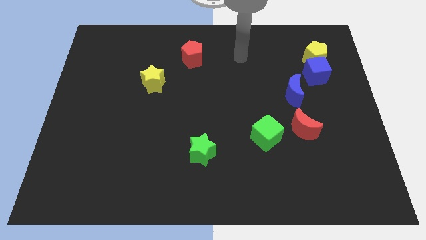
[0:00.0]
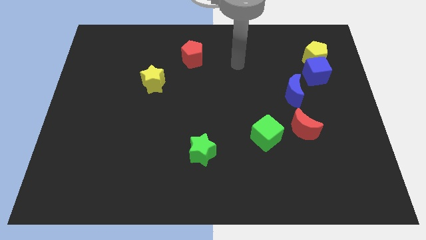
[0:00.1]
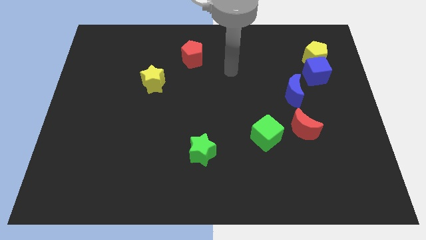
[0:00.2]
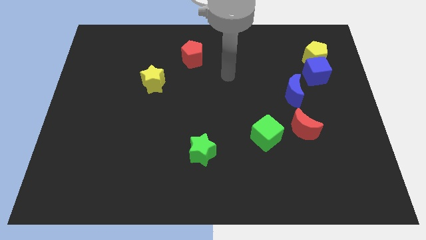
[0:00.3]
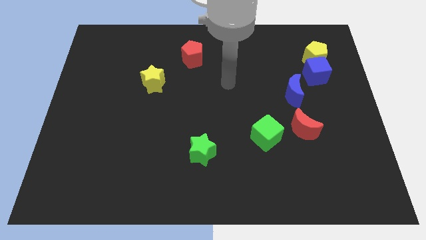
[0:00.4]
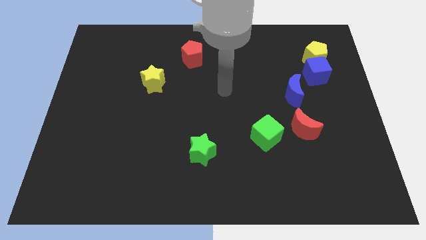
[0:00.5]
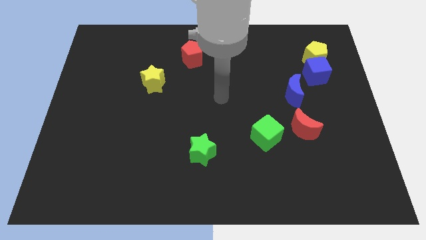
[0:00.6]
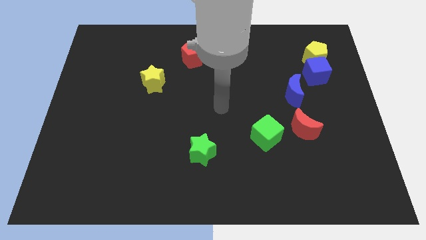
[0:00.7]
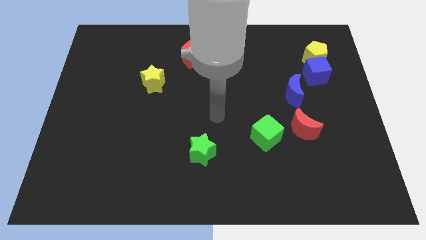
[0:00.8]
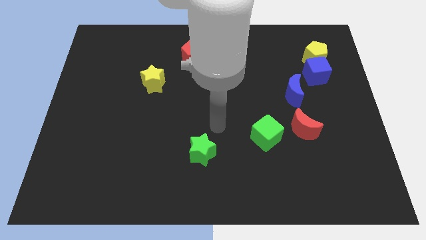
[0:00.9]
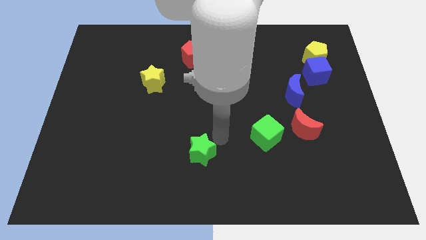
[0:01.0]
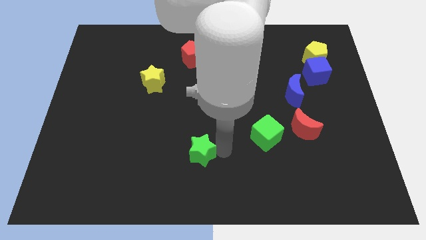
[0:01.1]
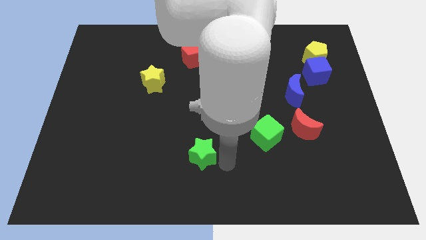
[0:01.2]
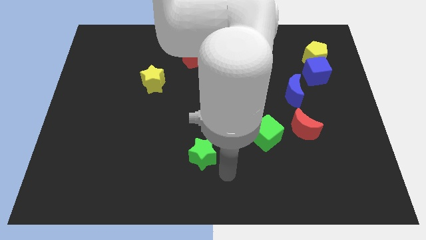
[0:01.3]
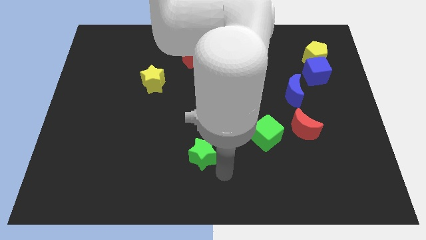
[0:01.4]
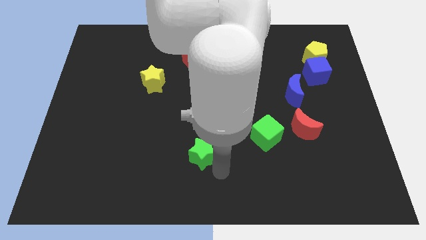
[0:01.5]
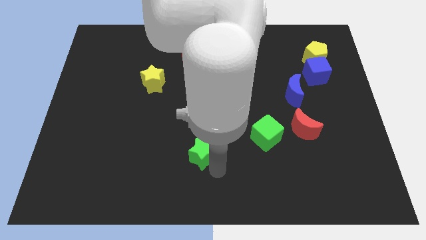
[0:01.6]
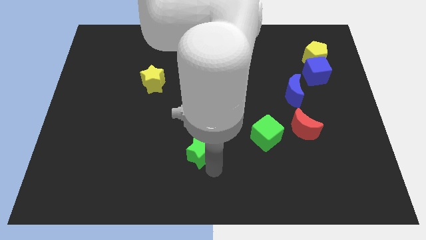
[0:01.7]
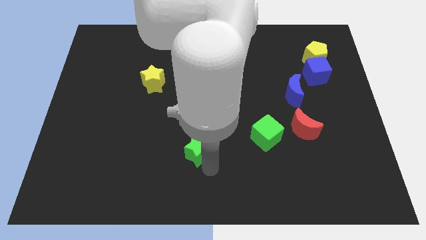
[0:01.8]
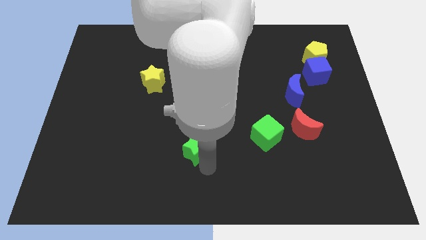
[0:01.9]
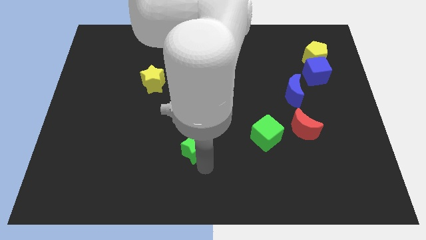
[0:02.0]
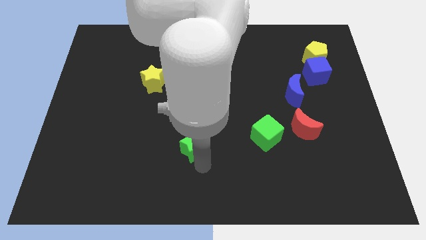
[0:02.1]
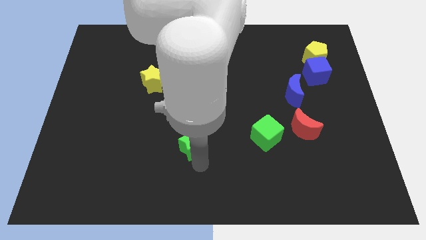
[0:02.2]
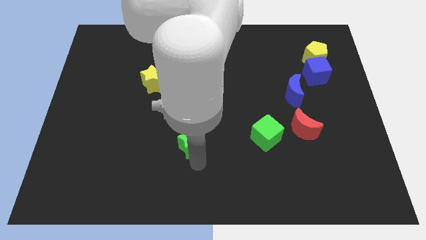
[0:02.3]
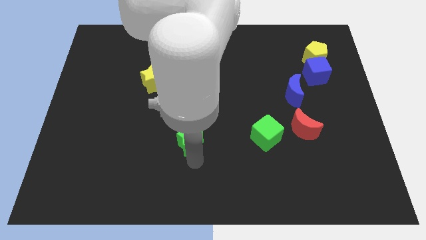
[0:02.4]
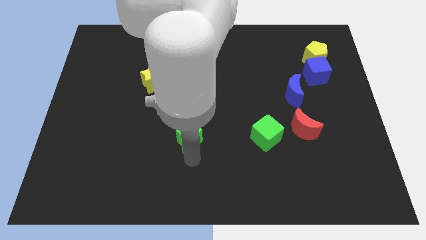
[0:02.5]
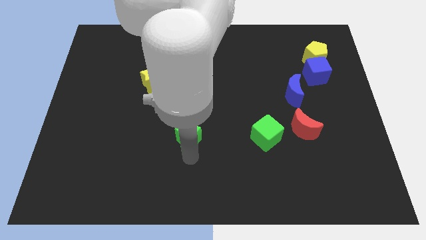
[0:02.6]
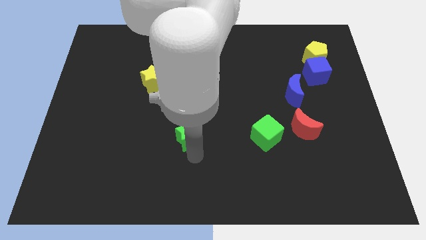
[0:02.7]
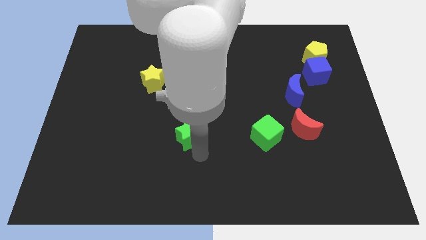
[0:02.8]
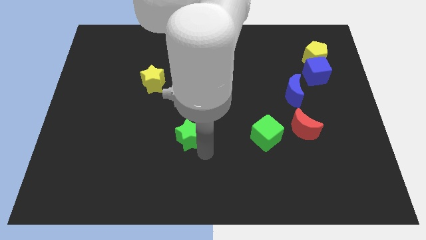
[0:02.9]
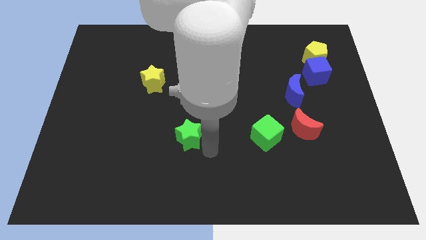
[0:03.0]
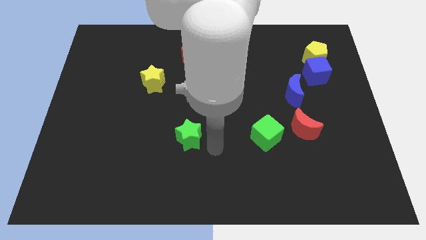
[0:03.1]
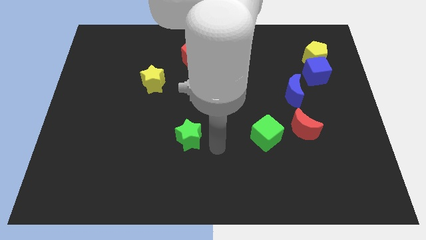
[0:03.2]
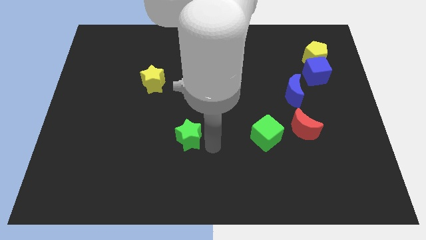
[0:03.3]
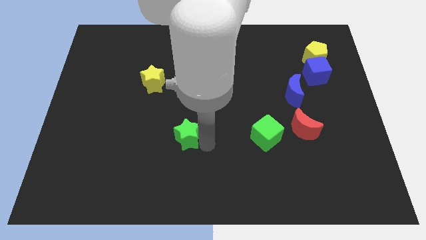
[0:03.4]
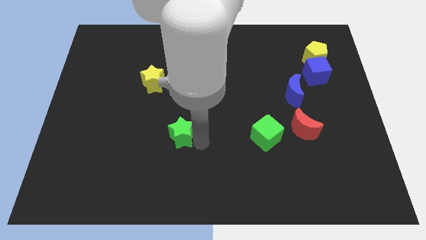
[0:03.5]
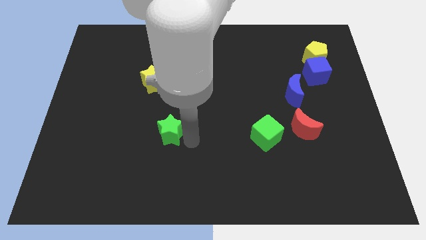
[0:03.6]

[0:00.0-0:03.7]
slightly slide the green star diagonally upwards and left

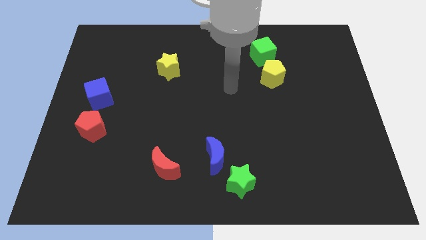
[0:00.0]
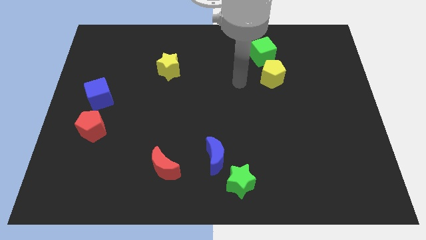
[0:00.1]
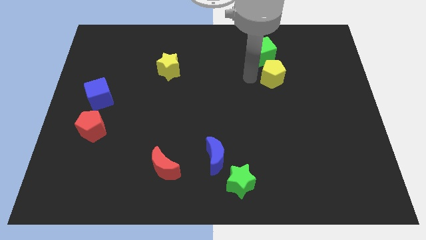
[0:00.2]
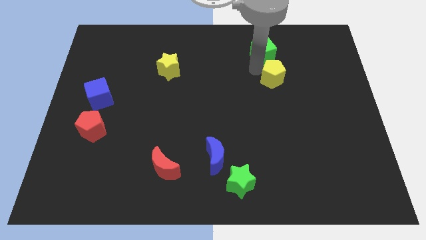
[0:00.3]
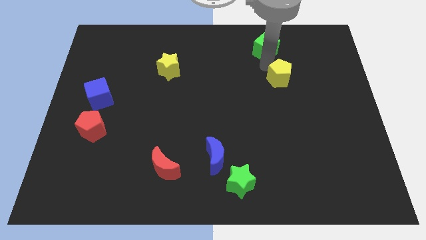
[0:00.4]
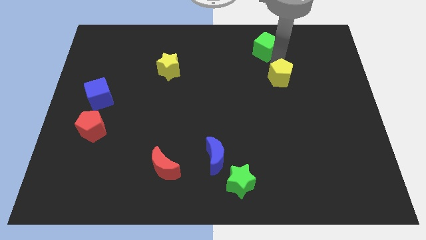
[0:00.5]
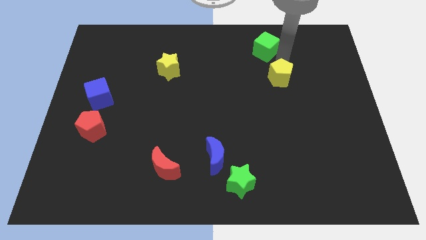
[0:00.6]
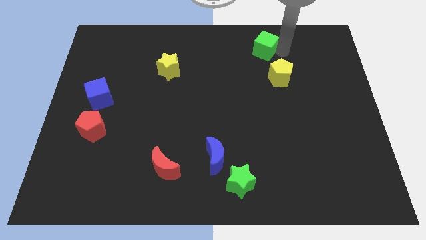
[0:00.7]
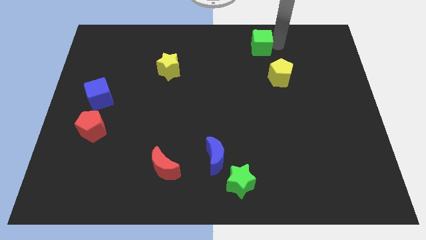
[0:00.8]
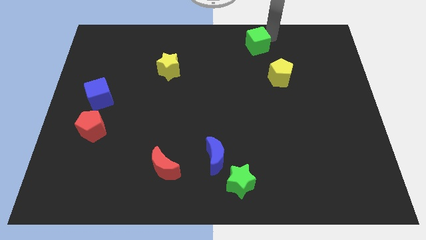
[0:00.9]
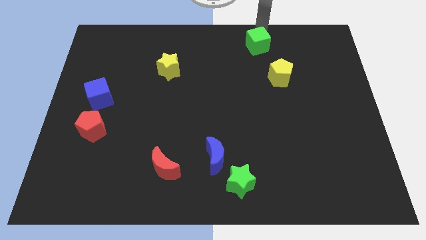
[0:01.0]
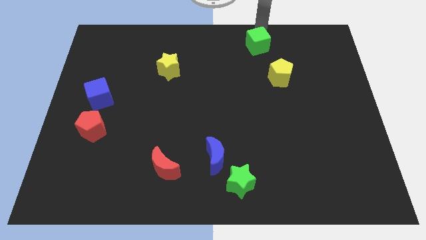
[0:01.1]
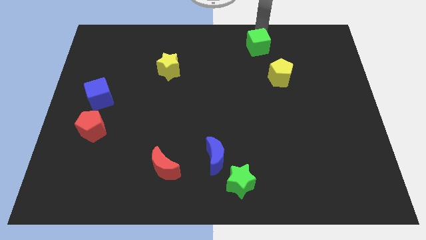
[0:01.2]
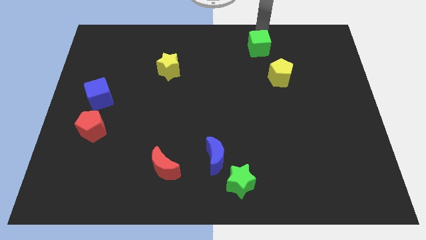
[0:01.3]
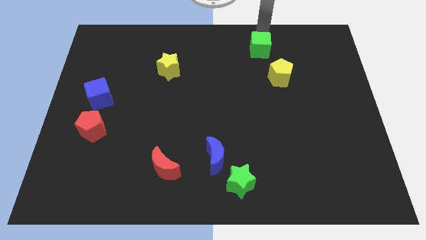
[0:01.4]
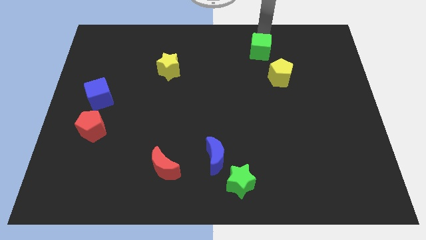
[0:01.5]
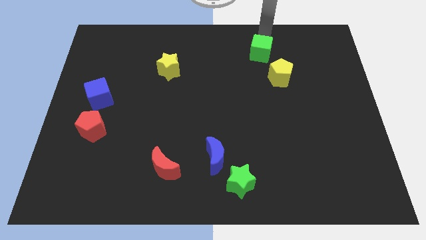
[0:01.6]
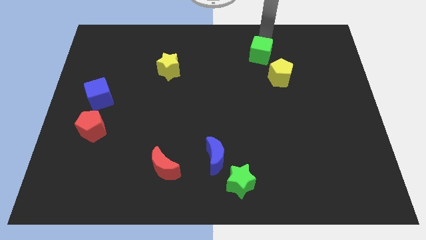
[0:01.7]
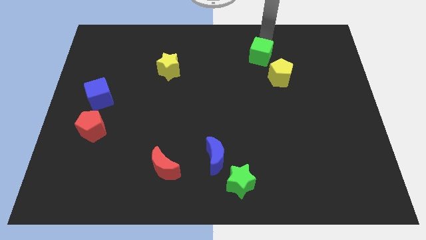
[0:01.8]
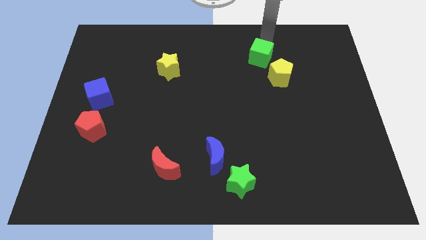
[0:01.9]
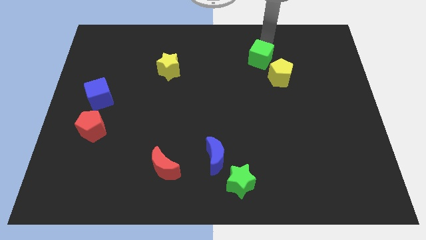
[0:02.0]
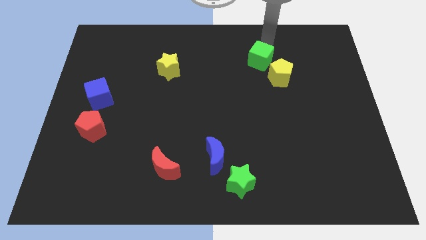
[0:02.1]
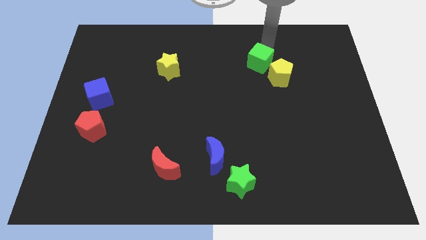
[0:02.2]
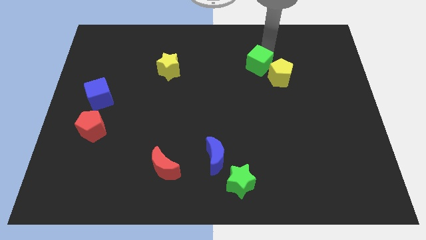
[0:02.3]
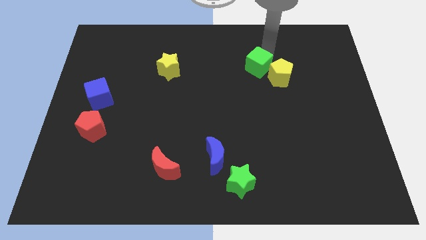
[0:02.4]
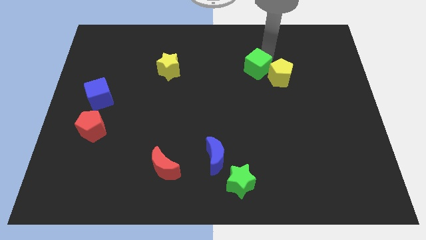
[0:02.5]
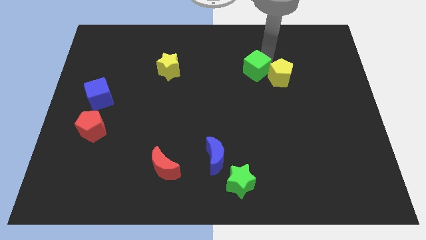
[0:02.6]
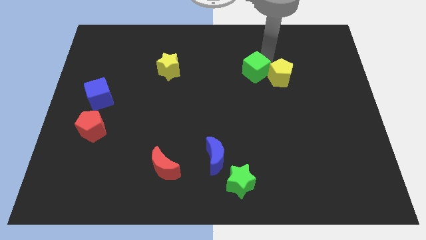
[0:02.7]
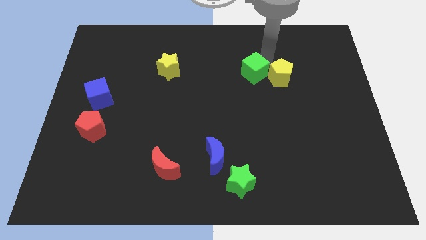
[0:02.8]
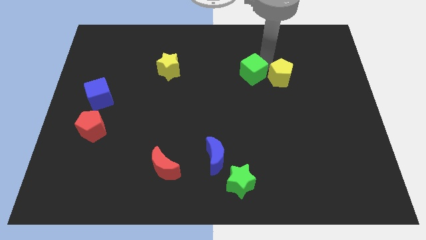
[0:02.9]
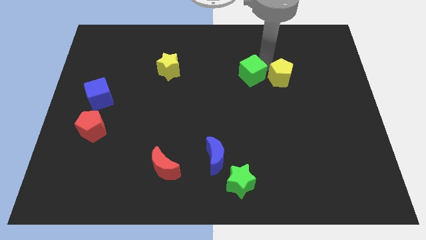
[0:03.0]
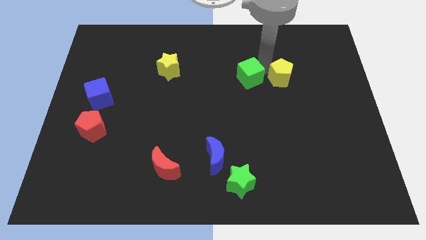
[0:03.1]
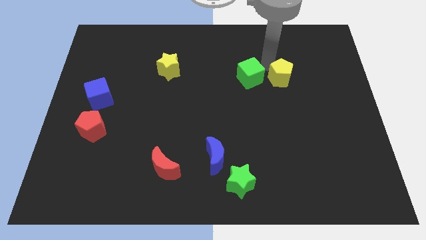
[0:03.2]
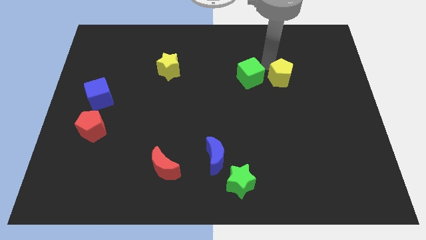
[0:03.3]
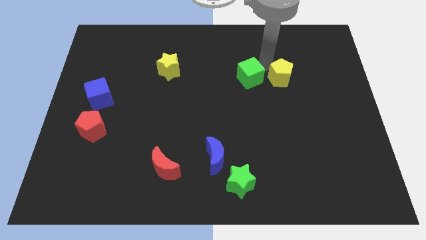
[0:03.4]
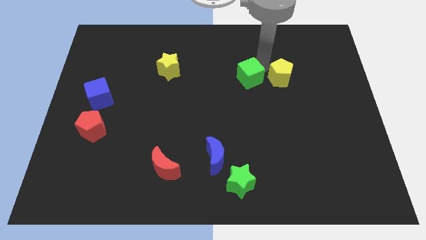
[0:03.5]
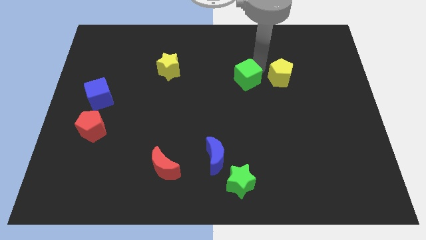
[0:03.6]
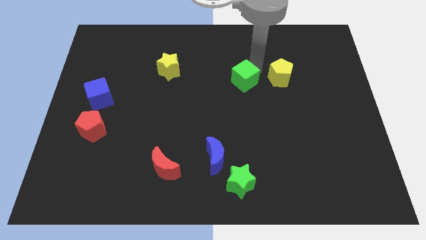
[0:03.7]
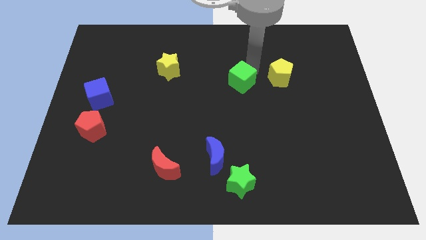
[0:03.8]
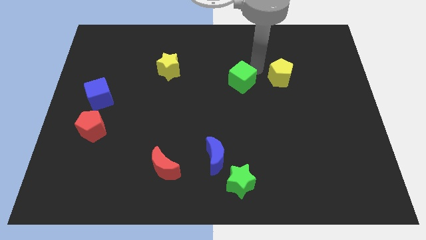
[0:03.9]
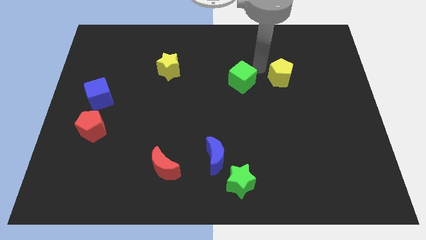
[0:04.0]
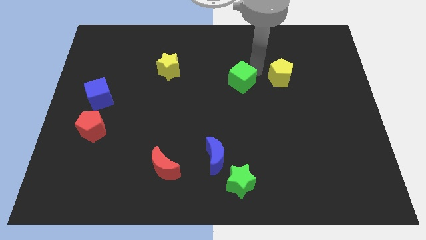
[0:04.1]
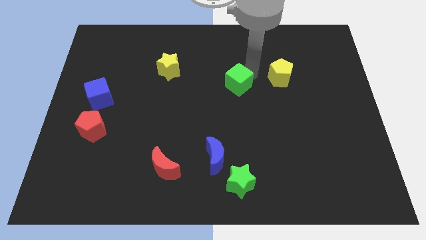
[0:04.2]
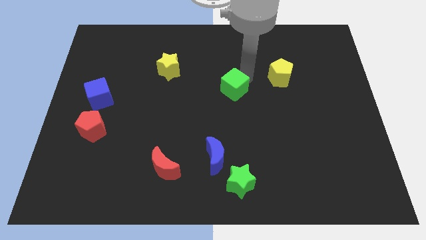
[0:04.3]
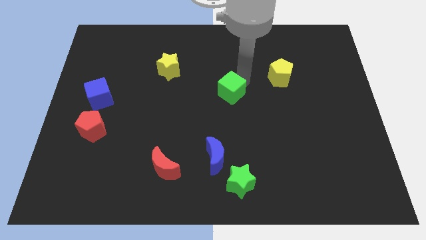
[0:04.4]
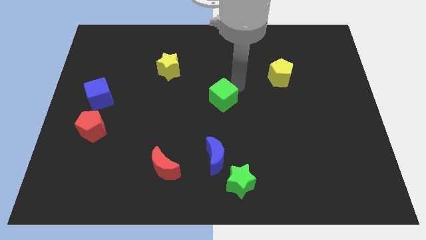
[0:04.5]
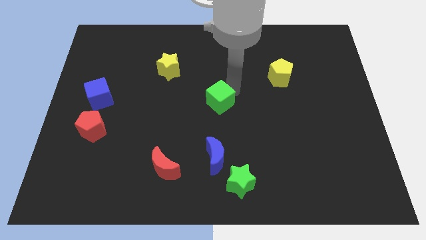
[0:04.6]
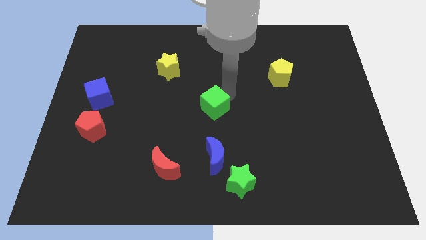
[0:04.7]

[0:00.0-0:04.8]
slide the green cube down and to the left
